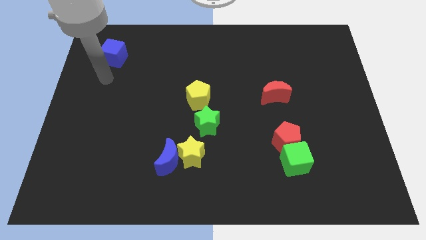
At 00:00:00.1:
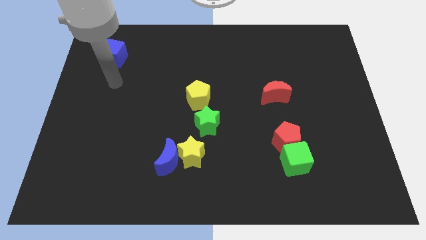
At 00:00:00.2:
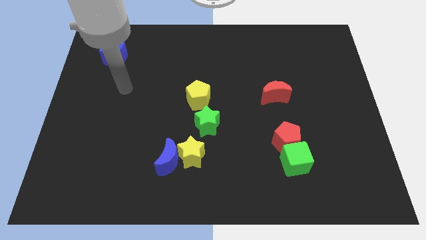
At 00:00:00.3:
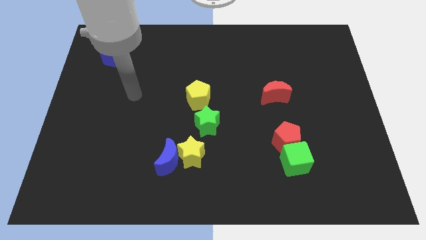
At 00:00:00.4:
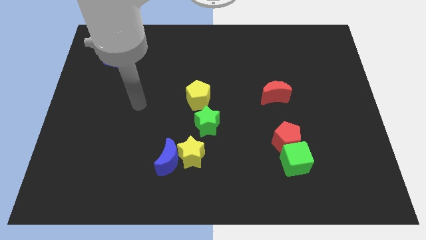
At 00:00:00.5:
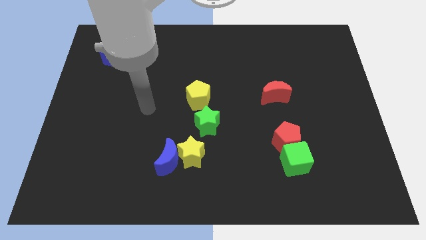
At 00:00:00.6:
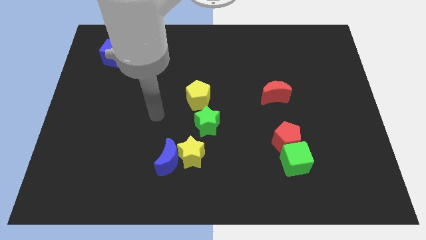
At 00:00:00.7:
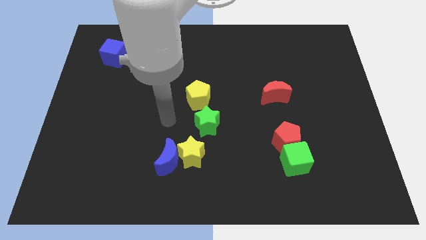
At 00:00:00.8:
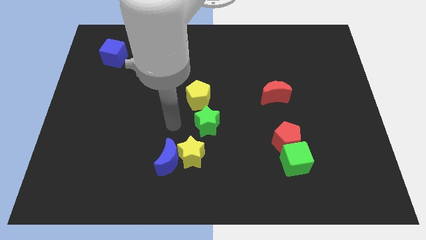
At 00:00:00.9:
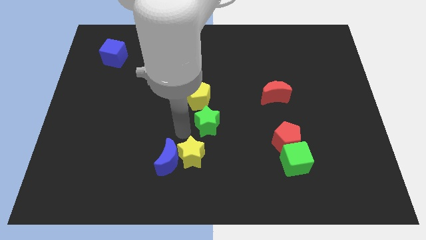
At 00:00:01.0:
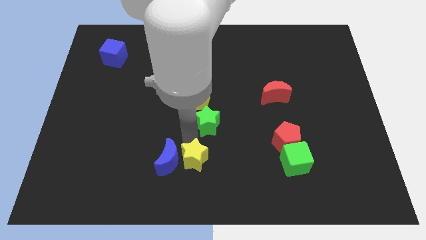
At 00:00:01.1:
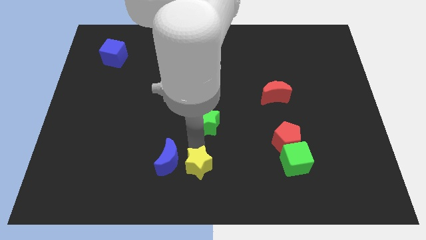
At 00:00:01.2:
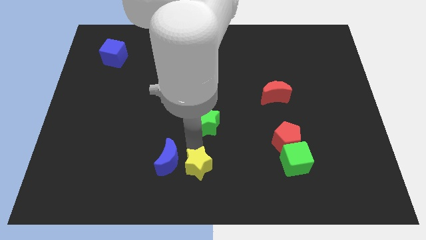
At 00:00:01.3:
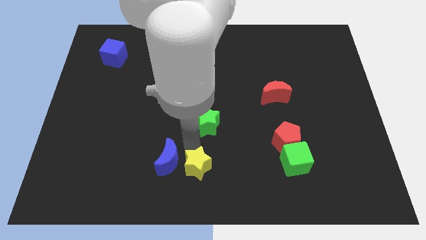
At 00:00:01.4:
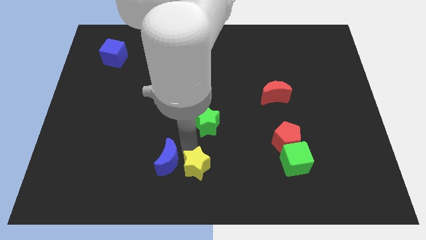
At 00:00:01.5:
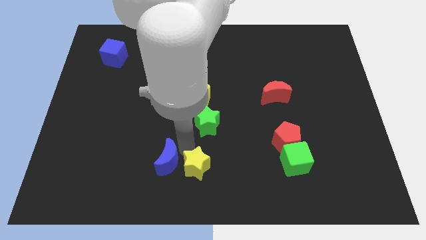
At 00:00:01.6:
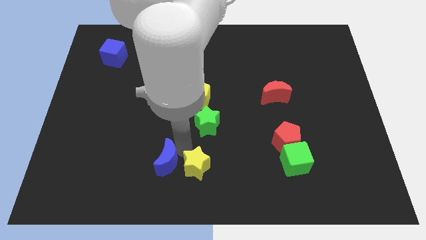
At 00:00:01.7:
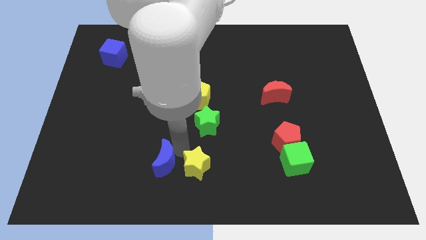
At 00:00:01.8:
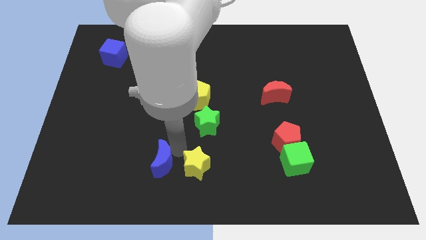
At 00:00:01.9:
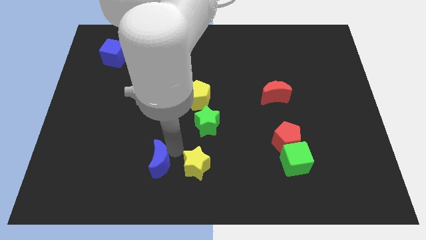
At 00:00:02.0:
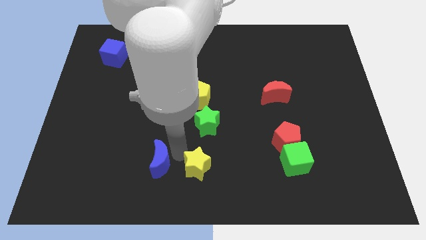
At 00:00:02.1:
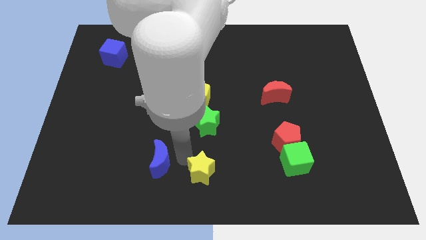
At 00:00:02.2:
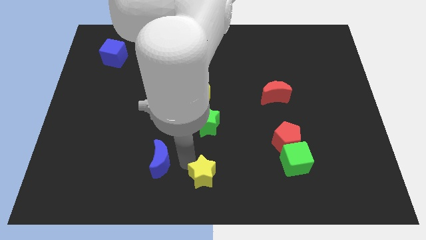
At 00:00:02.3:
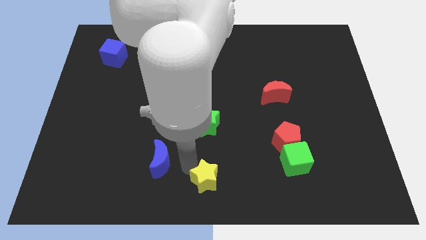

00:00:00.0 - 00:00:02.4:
move the blue moon away from the yellow star

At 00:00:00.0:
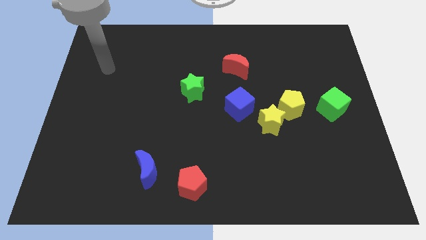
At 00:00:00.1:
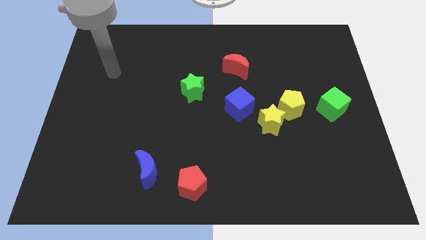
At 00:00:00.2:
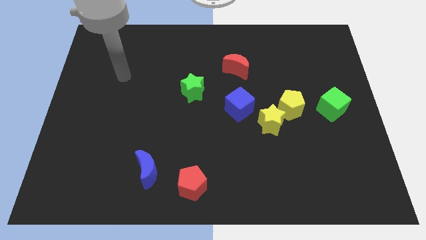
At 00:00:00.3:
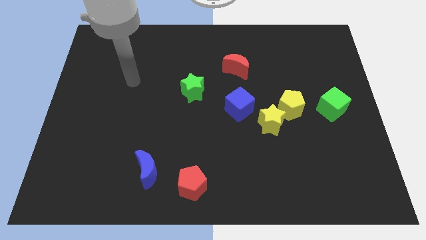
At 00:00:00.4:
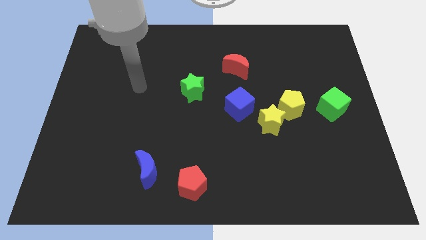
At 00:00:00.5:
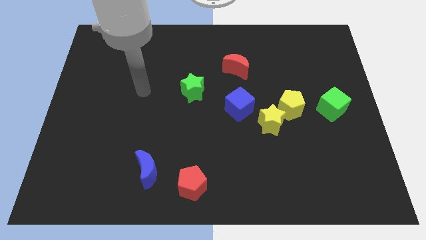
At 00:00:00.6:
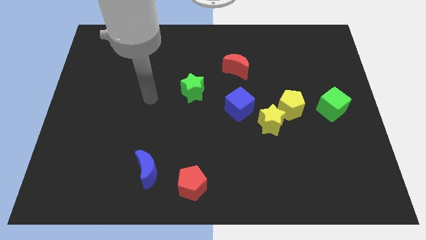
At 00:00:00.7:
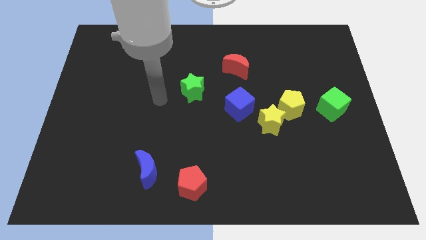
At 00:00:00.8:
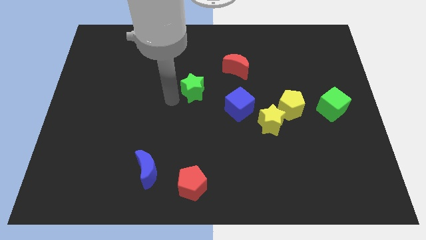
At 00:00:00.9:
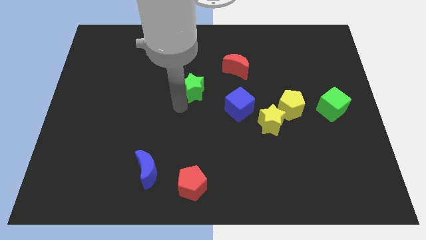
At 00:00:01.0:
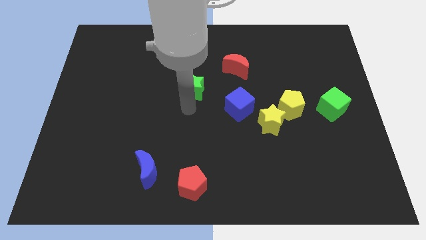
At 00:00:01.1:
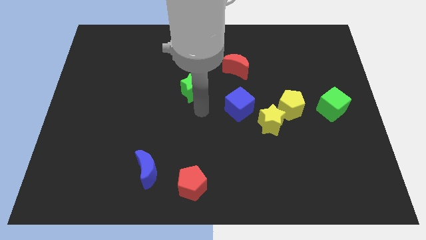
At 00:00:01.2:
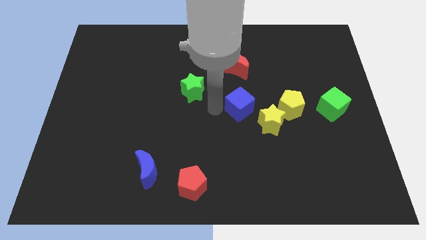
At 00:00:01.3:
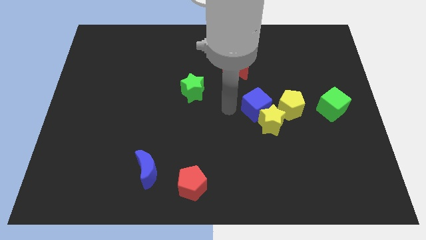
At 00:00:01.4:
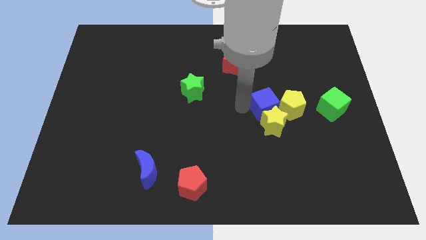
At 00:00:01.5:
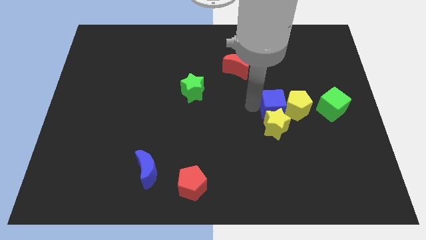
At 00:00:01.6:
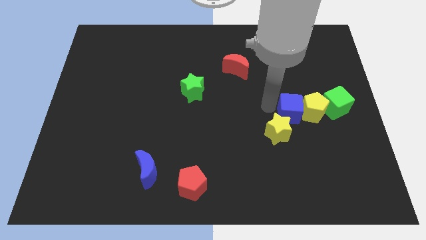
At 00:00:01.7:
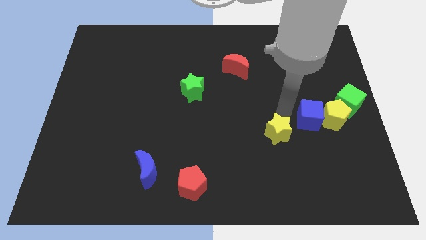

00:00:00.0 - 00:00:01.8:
separate the yellow star from the yellow pentagon and blue cube

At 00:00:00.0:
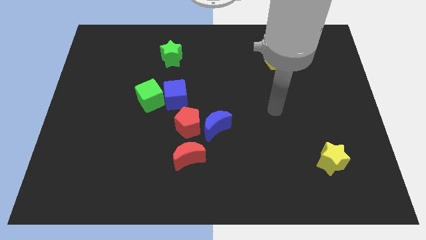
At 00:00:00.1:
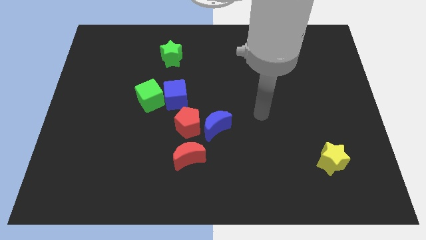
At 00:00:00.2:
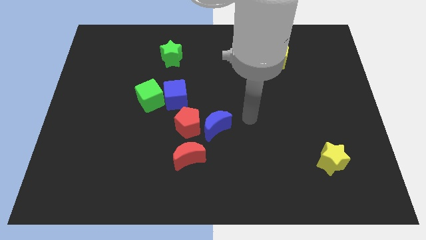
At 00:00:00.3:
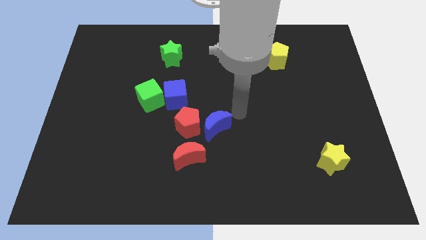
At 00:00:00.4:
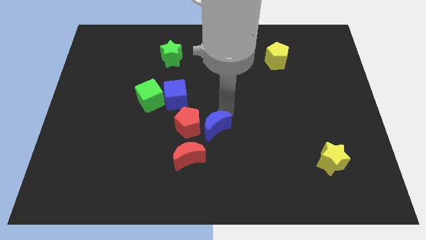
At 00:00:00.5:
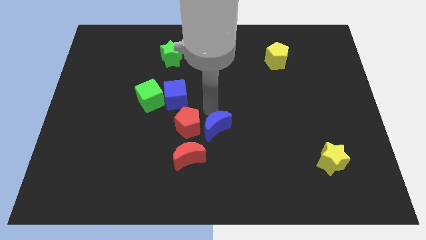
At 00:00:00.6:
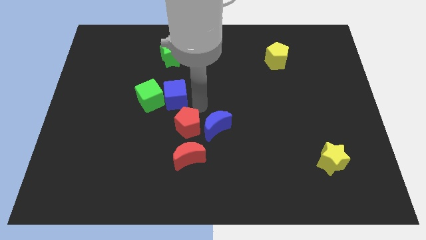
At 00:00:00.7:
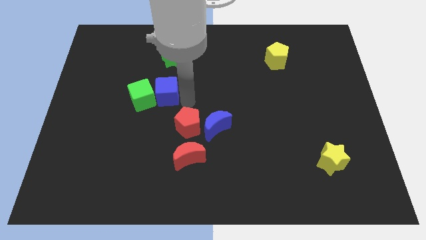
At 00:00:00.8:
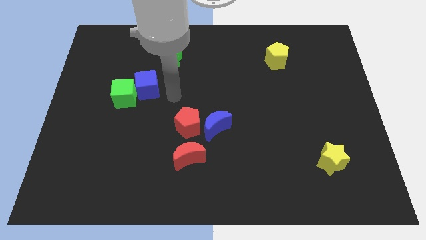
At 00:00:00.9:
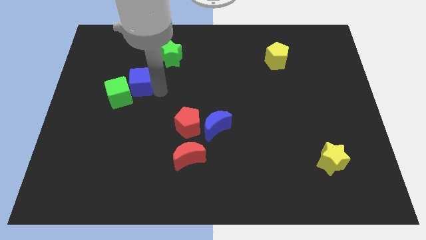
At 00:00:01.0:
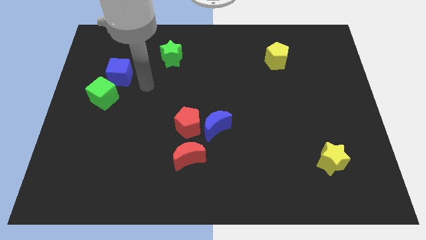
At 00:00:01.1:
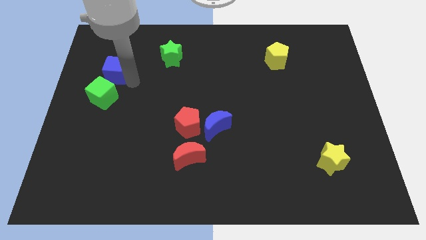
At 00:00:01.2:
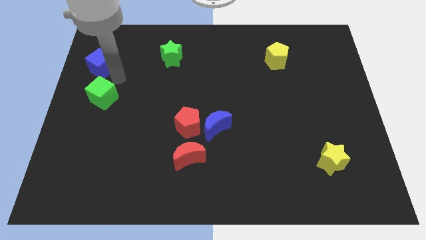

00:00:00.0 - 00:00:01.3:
pull the green cube apart from the blue cube

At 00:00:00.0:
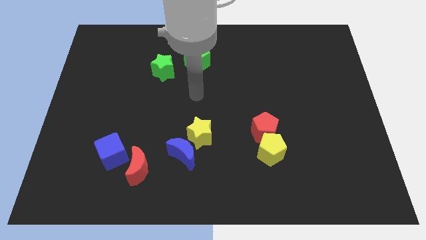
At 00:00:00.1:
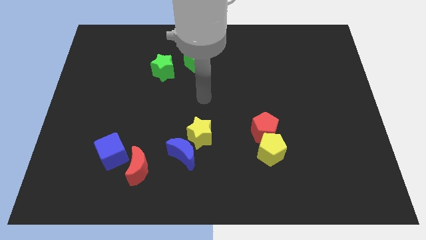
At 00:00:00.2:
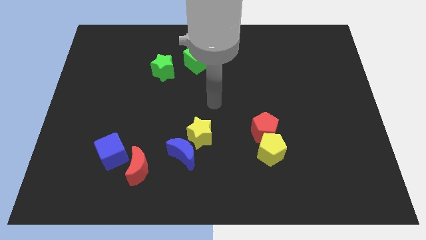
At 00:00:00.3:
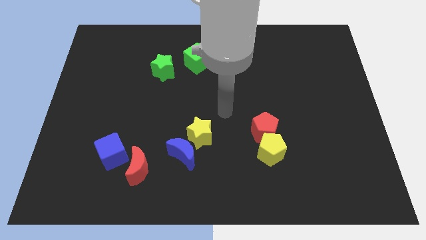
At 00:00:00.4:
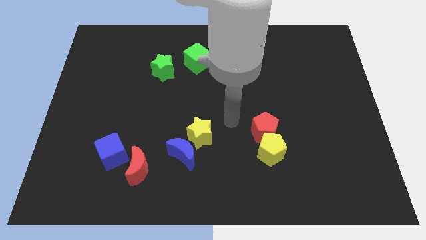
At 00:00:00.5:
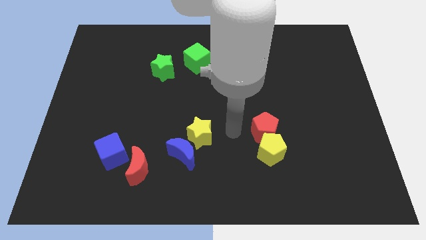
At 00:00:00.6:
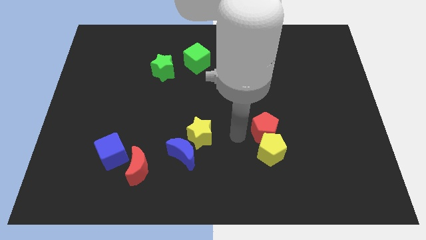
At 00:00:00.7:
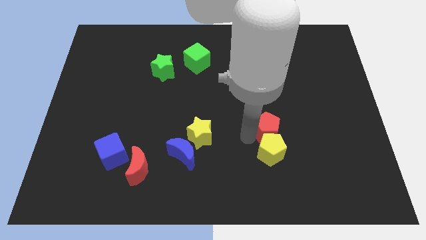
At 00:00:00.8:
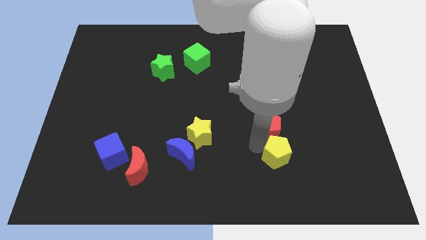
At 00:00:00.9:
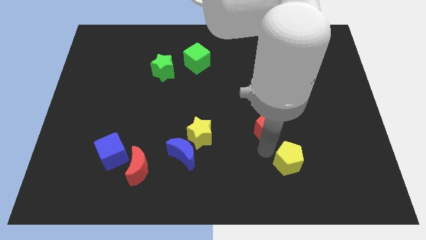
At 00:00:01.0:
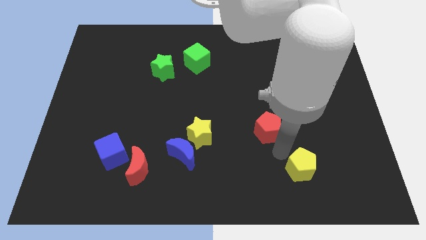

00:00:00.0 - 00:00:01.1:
move the red pentagon away from the yellow pentagon

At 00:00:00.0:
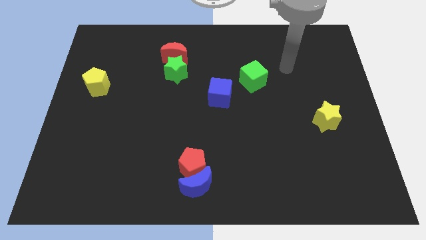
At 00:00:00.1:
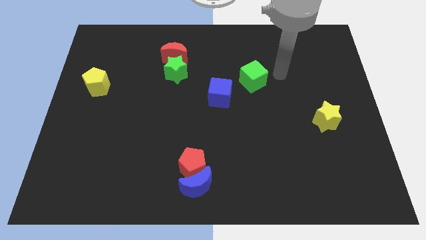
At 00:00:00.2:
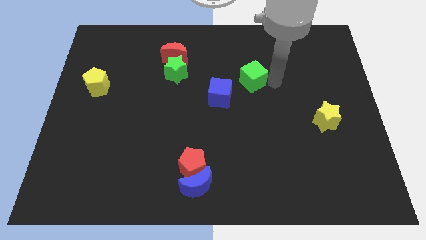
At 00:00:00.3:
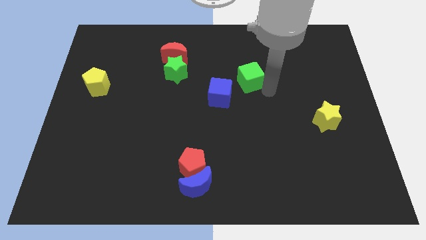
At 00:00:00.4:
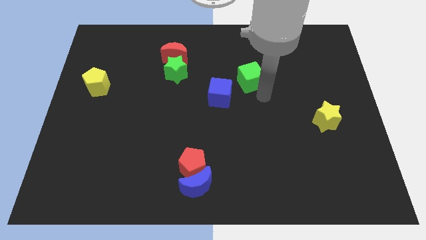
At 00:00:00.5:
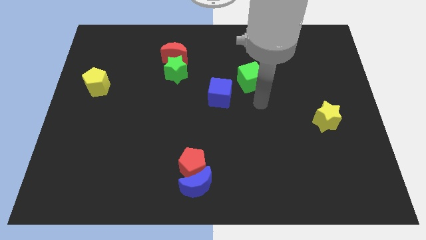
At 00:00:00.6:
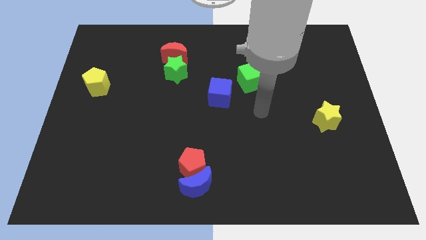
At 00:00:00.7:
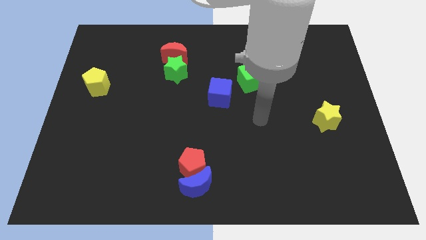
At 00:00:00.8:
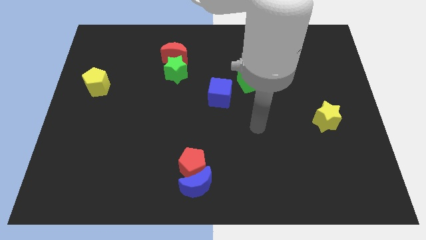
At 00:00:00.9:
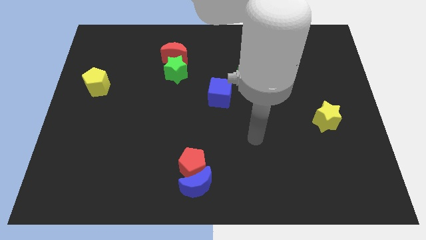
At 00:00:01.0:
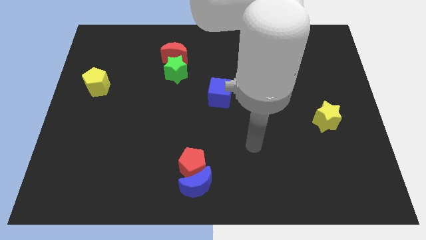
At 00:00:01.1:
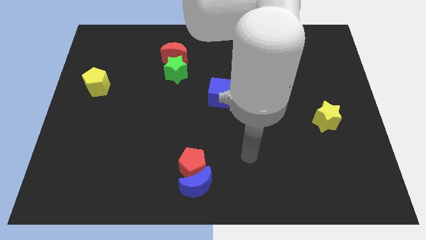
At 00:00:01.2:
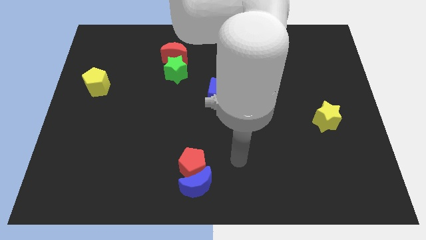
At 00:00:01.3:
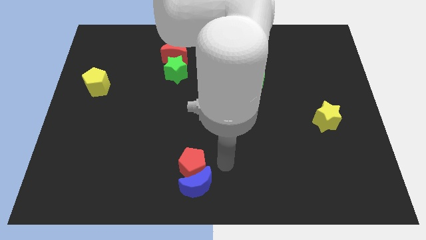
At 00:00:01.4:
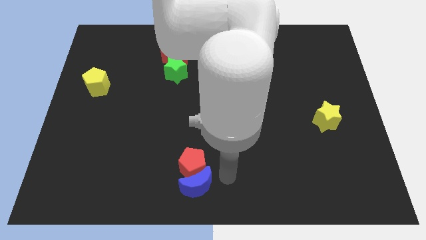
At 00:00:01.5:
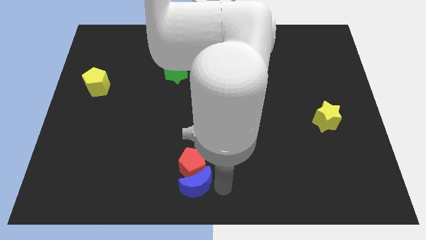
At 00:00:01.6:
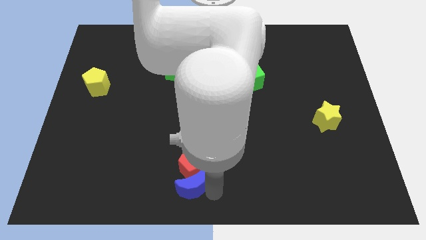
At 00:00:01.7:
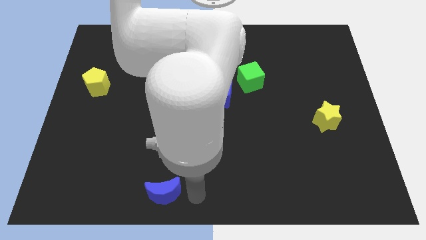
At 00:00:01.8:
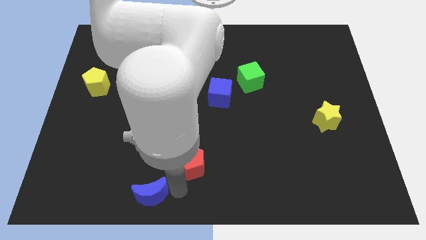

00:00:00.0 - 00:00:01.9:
pull the red pentagon apart from the blue moon

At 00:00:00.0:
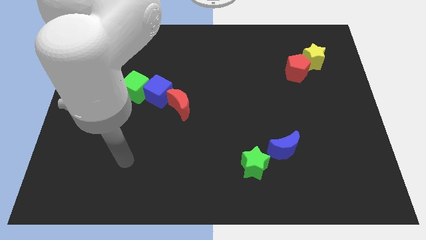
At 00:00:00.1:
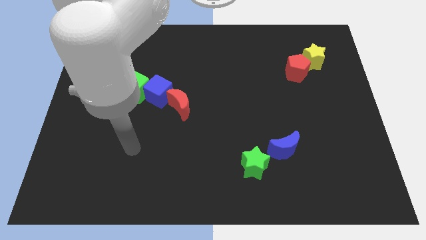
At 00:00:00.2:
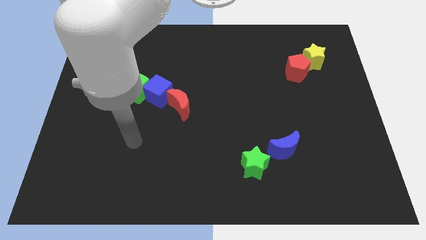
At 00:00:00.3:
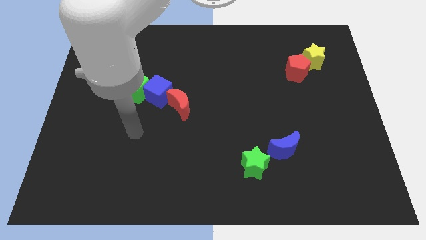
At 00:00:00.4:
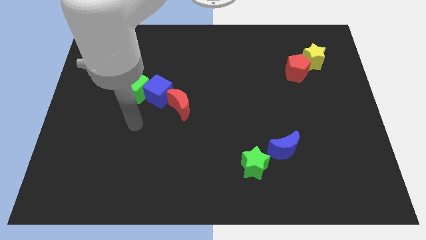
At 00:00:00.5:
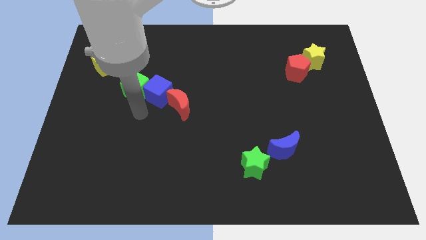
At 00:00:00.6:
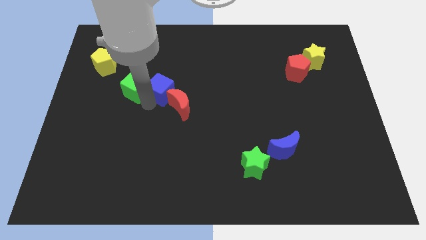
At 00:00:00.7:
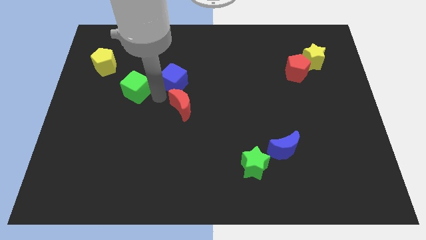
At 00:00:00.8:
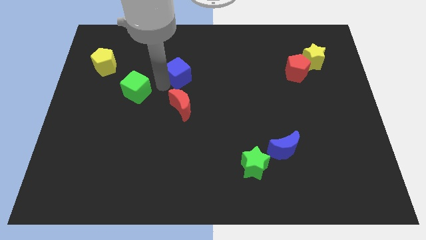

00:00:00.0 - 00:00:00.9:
separate the green cube from the blue cube
